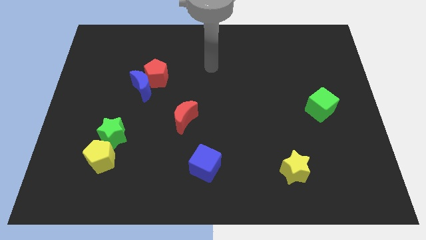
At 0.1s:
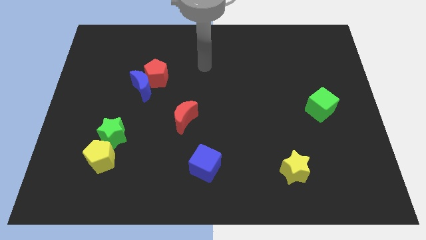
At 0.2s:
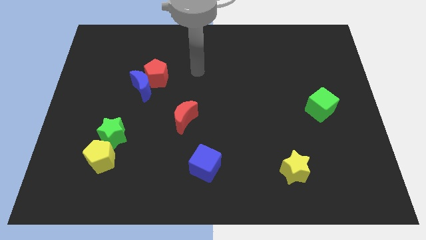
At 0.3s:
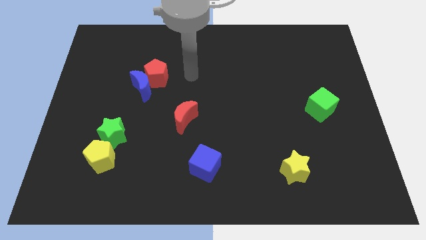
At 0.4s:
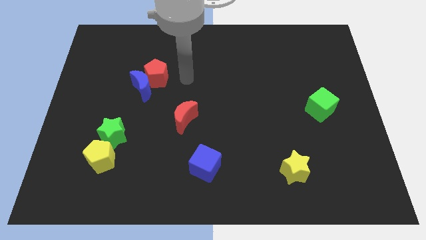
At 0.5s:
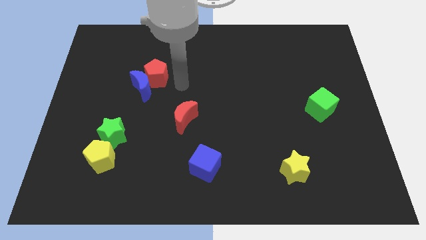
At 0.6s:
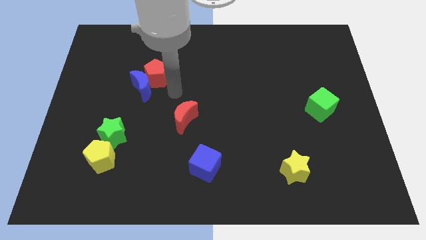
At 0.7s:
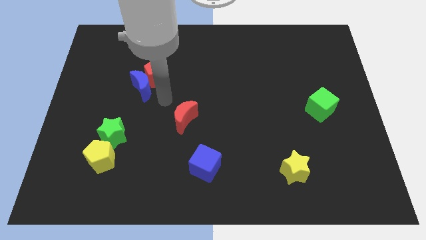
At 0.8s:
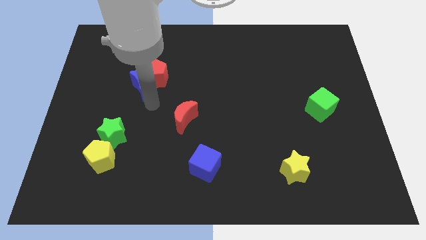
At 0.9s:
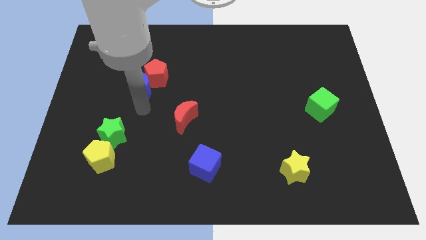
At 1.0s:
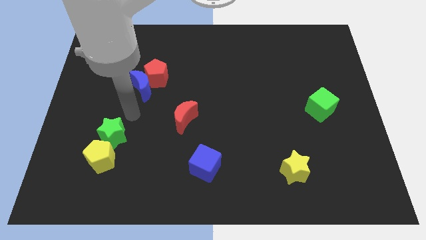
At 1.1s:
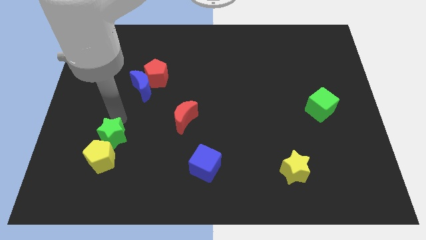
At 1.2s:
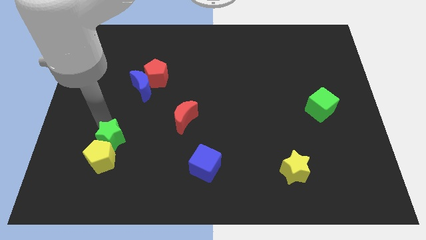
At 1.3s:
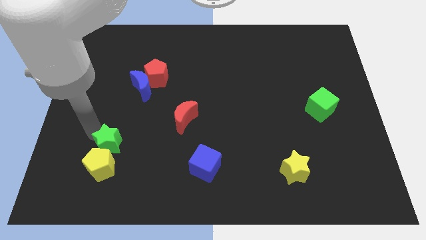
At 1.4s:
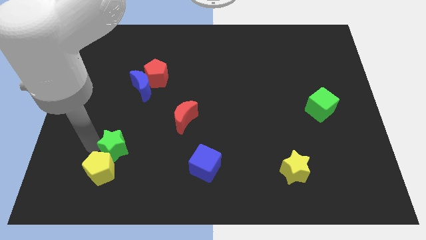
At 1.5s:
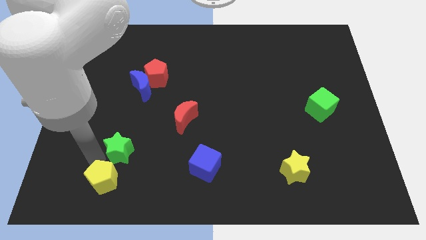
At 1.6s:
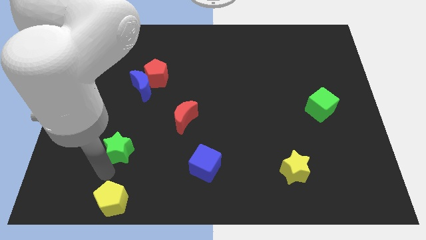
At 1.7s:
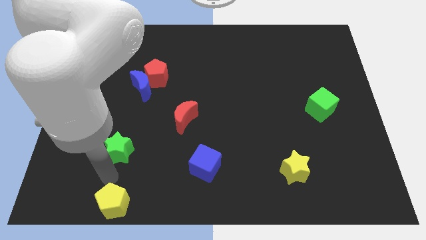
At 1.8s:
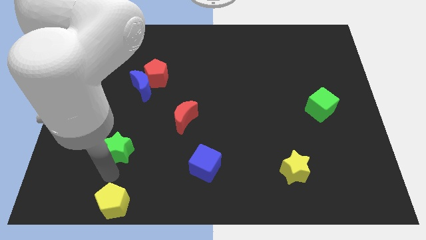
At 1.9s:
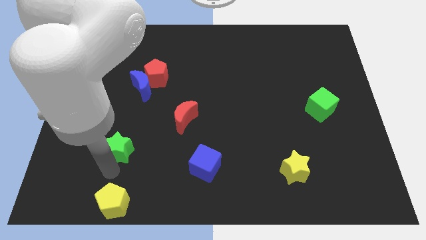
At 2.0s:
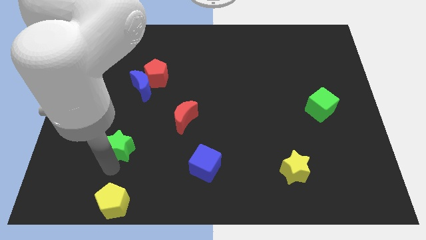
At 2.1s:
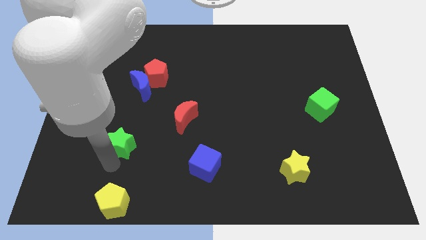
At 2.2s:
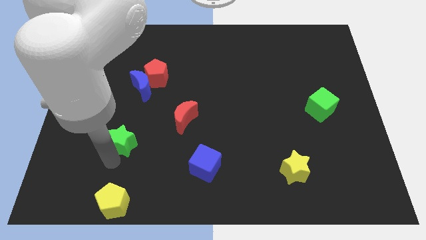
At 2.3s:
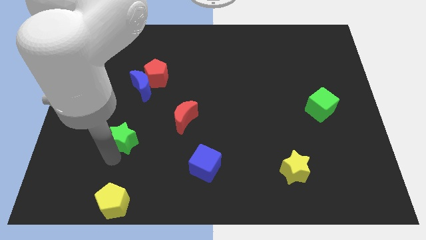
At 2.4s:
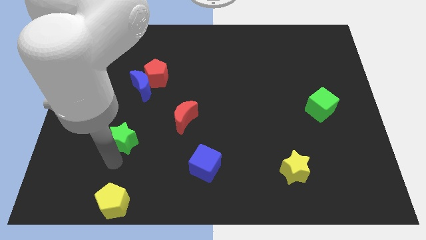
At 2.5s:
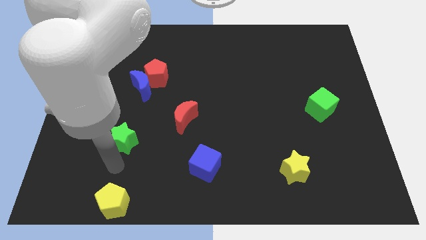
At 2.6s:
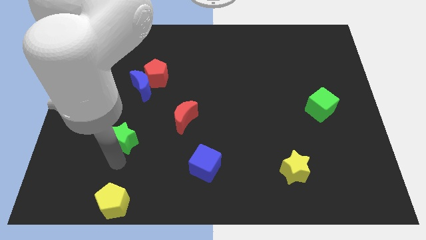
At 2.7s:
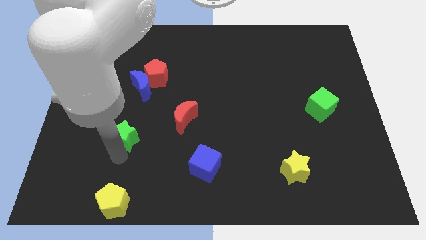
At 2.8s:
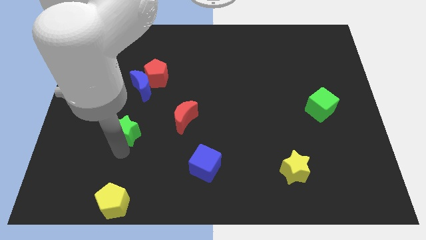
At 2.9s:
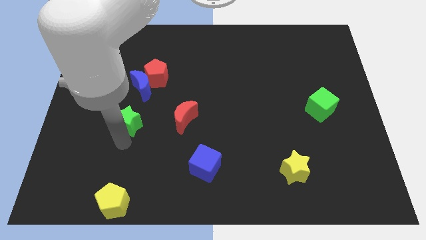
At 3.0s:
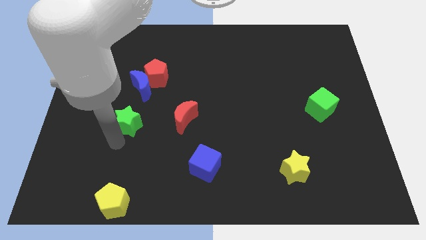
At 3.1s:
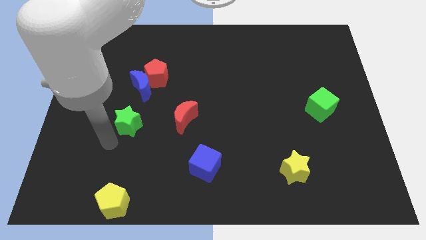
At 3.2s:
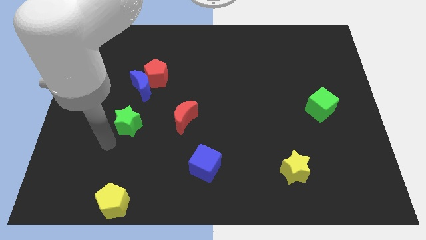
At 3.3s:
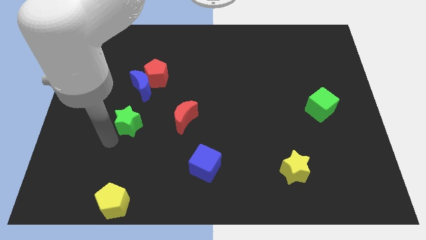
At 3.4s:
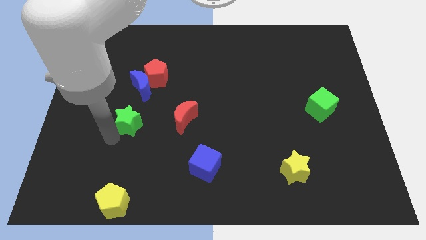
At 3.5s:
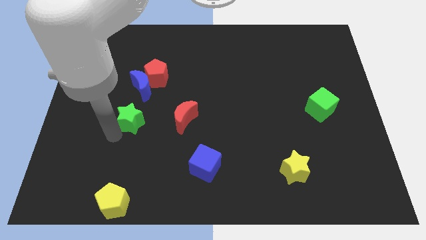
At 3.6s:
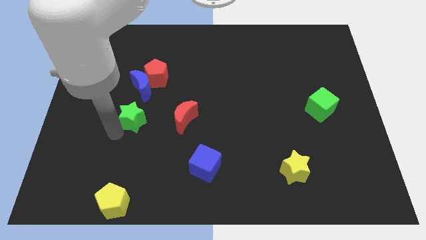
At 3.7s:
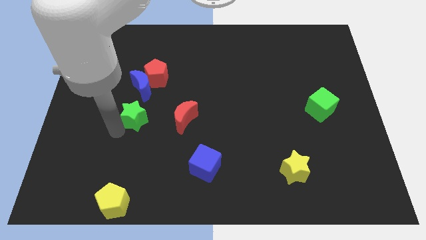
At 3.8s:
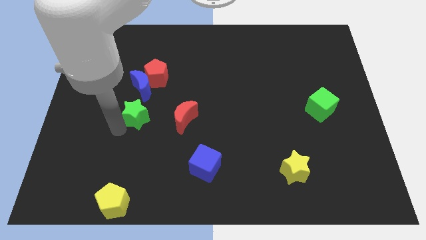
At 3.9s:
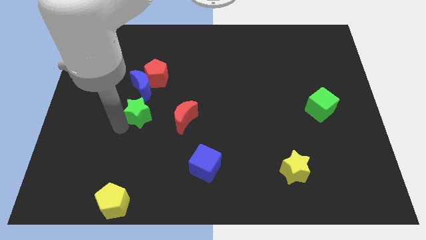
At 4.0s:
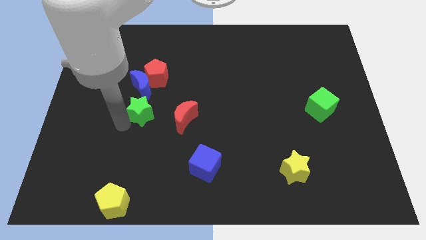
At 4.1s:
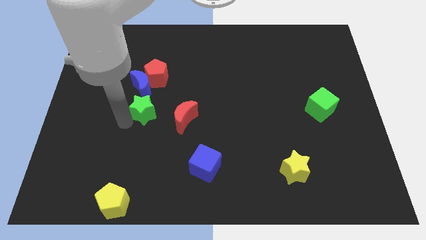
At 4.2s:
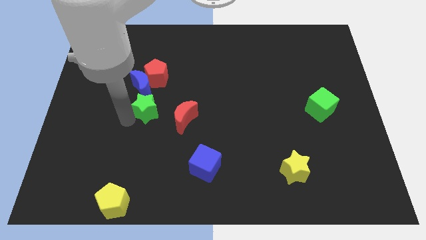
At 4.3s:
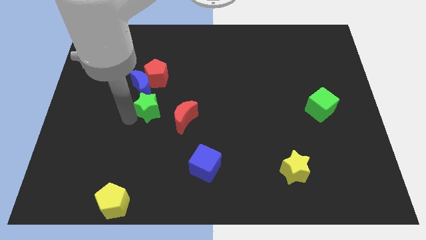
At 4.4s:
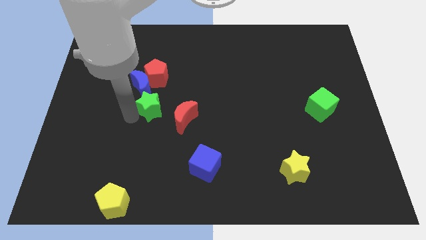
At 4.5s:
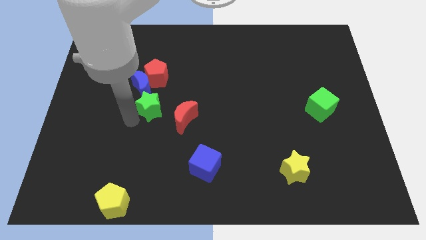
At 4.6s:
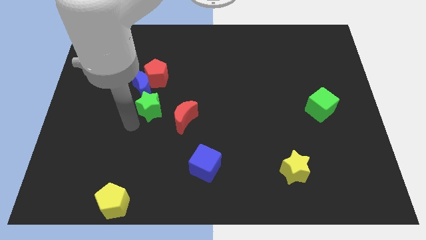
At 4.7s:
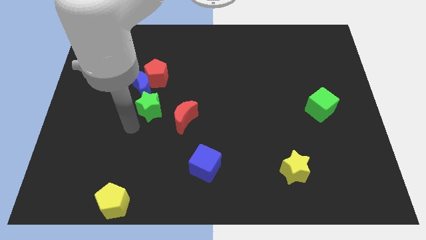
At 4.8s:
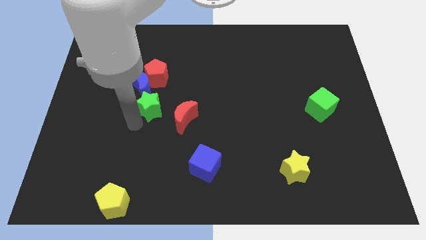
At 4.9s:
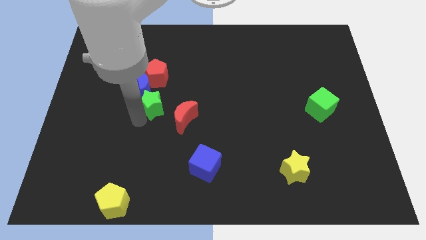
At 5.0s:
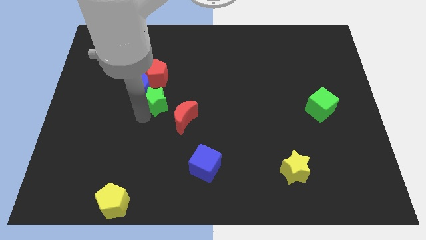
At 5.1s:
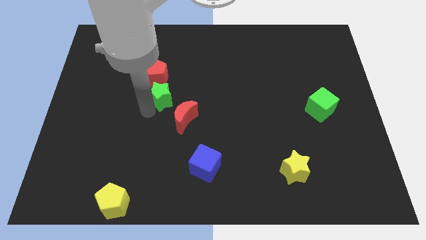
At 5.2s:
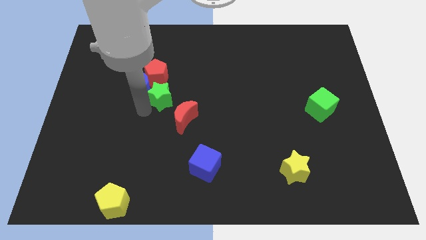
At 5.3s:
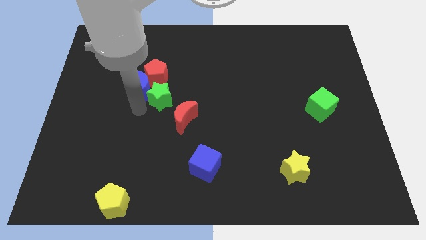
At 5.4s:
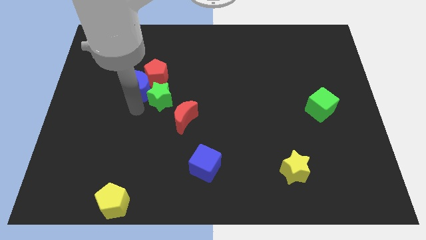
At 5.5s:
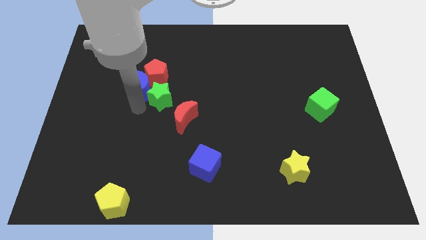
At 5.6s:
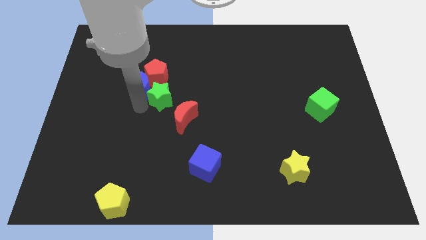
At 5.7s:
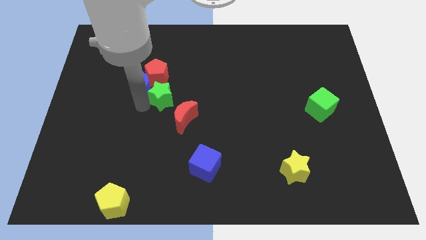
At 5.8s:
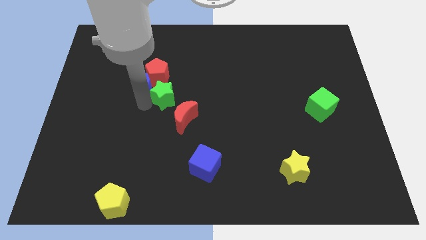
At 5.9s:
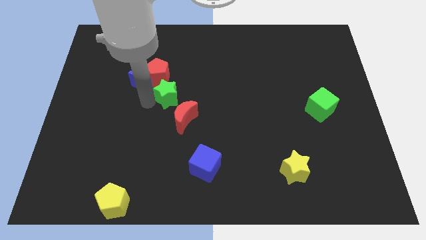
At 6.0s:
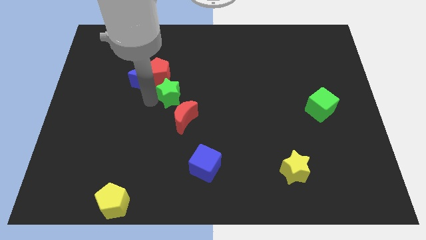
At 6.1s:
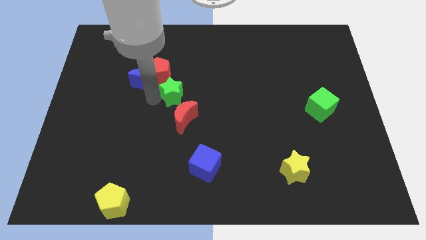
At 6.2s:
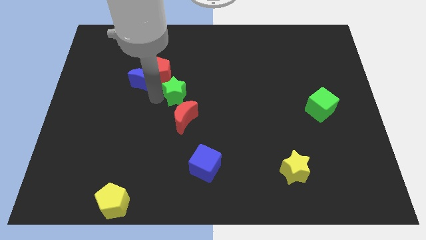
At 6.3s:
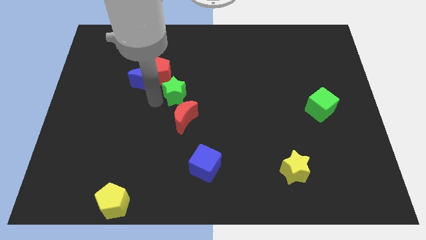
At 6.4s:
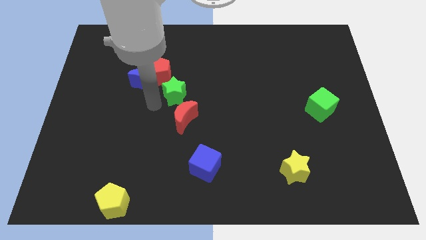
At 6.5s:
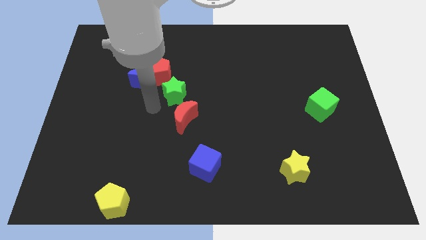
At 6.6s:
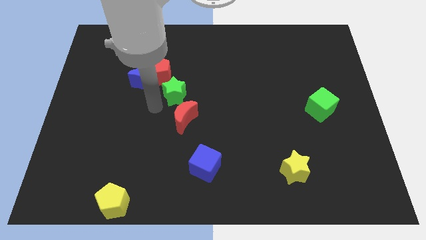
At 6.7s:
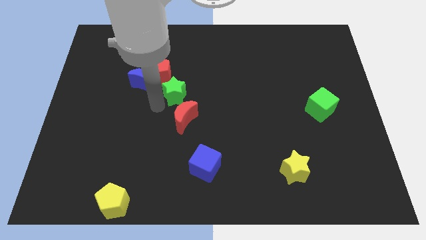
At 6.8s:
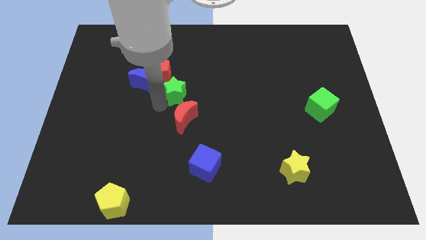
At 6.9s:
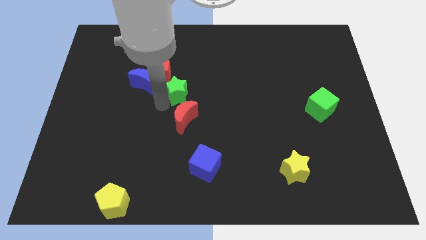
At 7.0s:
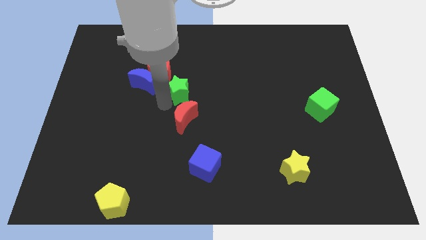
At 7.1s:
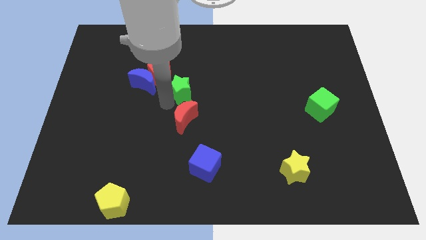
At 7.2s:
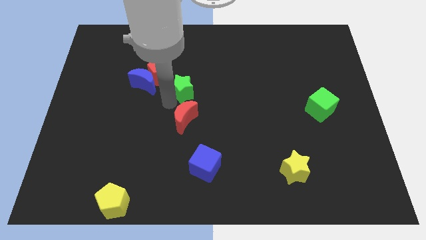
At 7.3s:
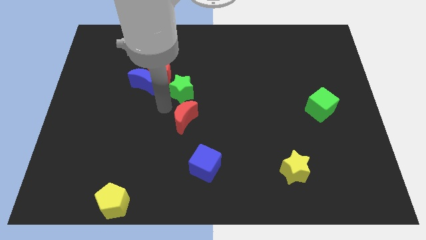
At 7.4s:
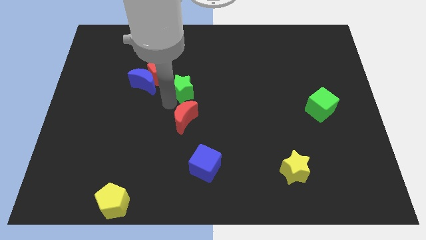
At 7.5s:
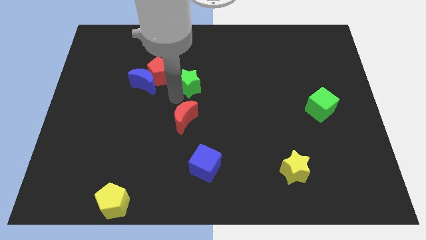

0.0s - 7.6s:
slide the green star diagonally upwards and to the right

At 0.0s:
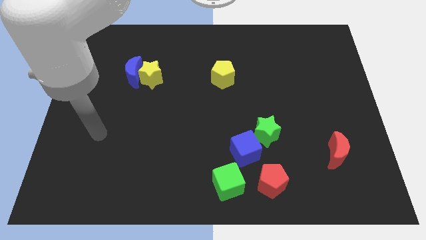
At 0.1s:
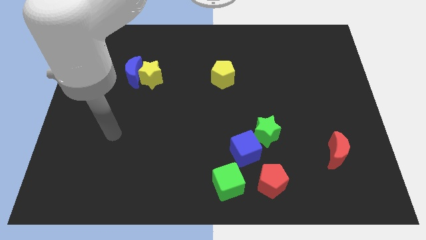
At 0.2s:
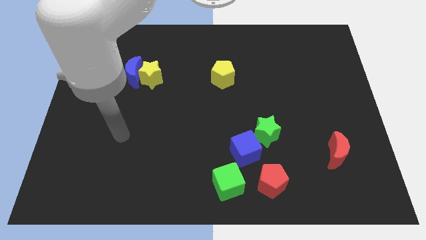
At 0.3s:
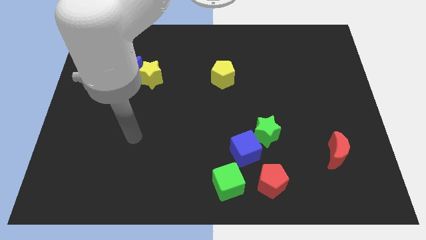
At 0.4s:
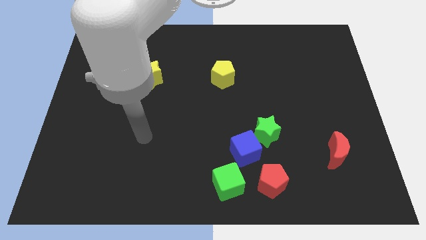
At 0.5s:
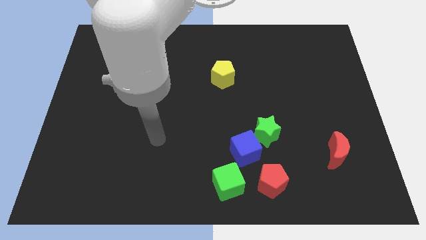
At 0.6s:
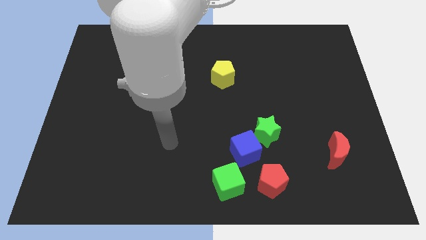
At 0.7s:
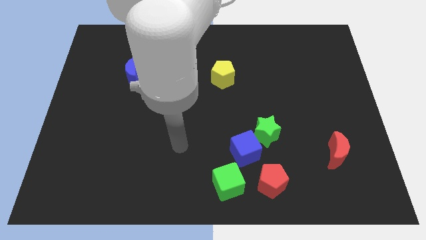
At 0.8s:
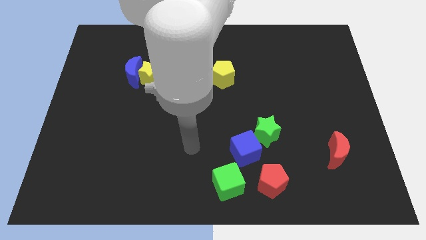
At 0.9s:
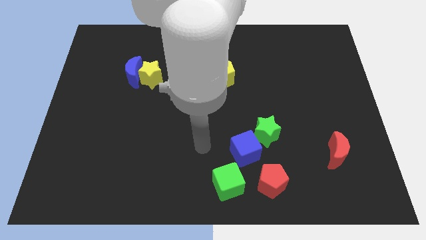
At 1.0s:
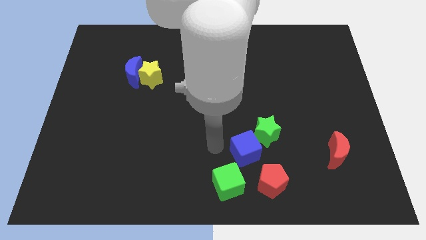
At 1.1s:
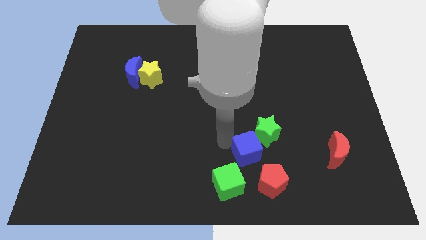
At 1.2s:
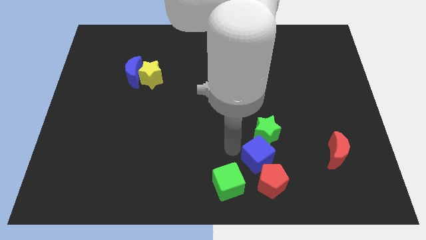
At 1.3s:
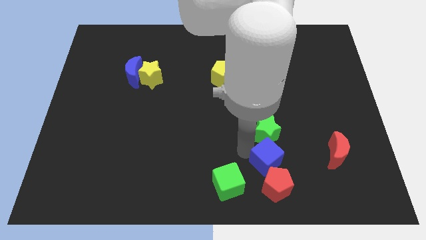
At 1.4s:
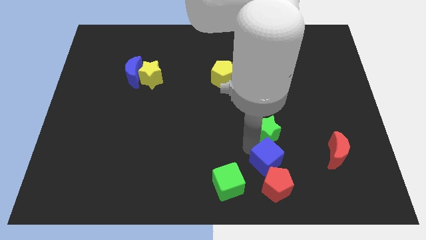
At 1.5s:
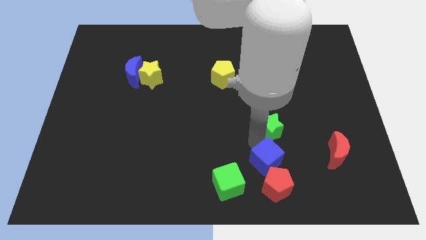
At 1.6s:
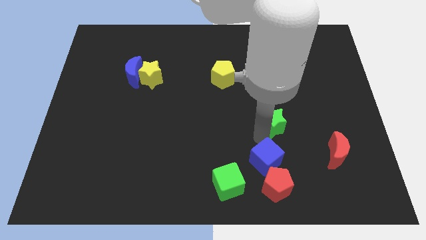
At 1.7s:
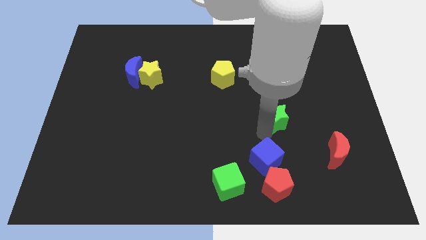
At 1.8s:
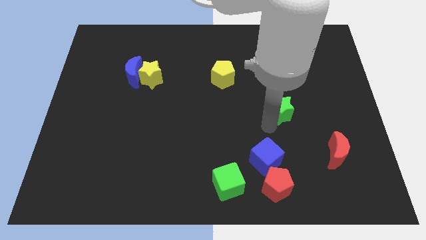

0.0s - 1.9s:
slide the green star diagonally up and to the right a bit
